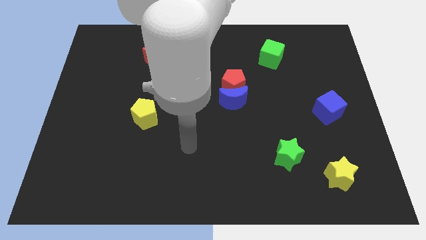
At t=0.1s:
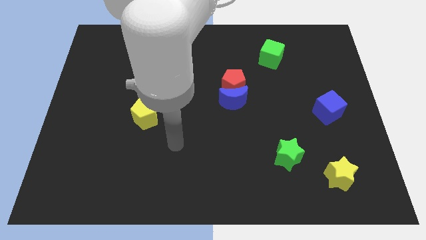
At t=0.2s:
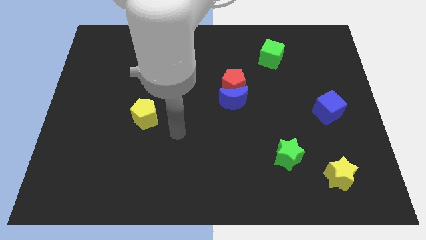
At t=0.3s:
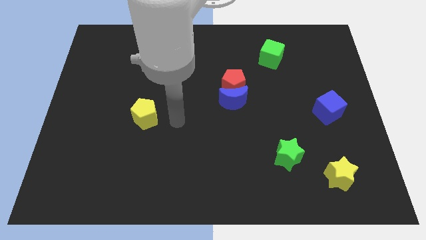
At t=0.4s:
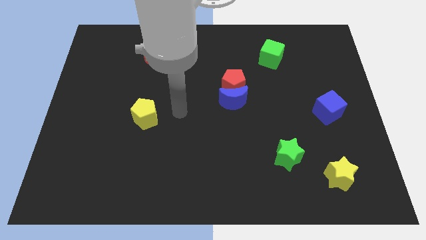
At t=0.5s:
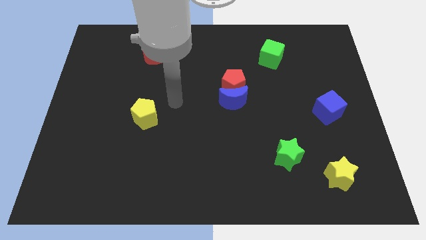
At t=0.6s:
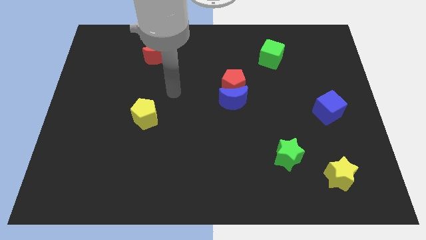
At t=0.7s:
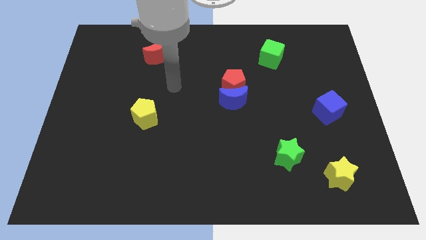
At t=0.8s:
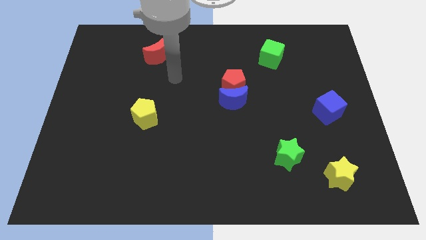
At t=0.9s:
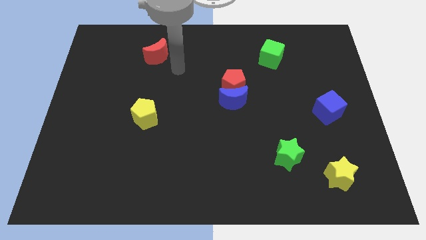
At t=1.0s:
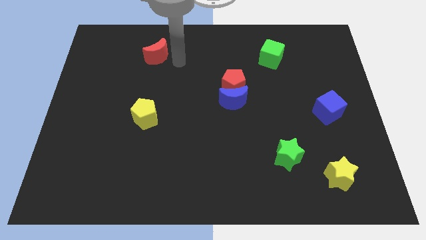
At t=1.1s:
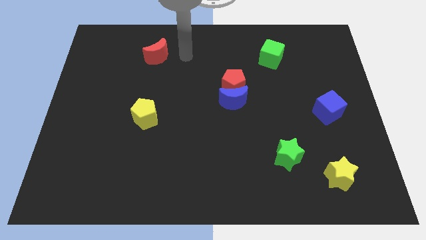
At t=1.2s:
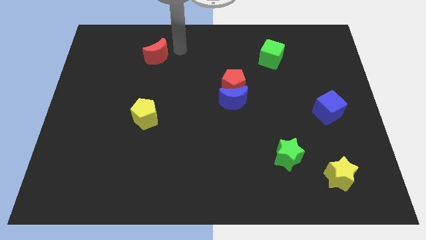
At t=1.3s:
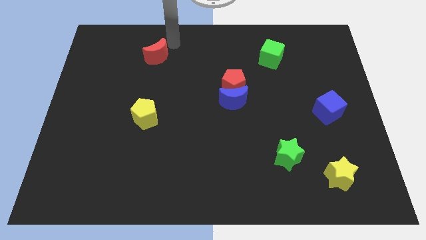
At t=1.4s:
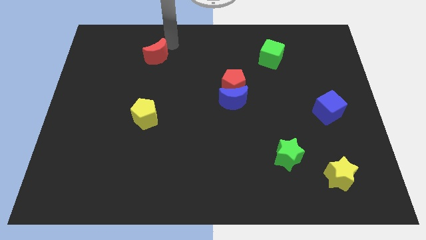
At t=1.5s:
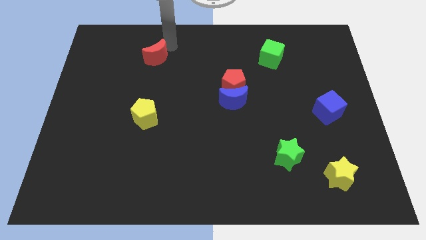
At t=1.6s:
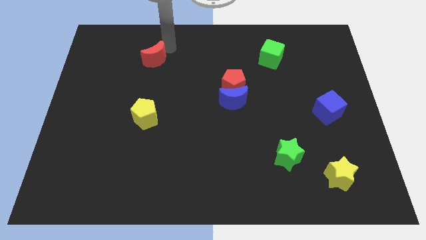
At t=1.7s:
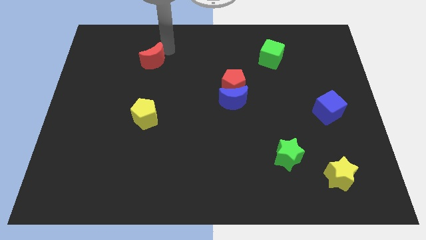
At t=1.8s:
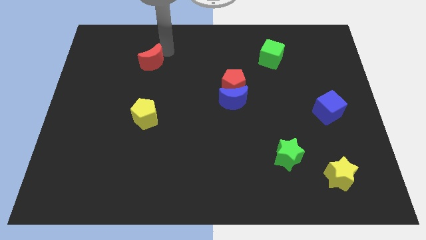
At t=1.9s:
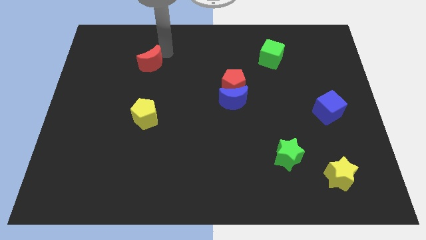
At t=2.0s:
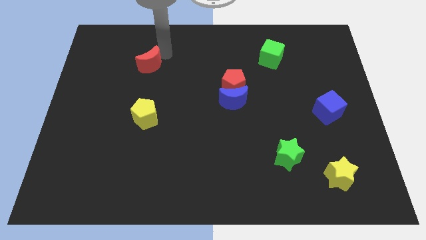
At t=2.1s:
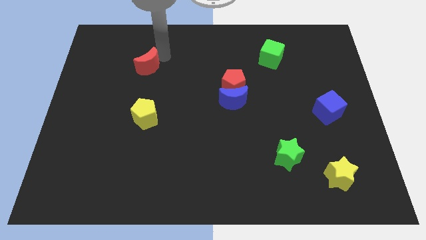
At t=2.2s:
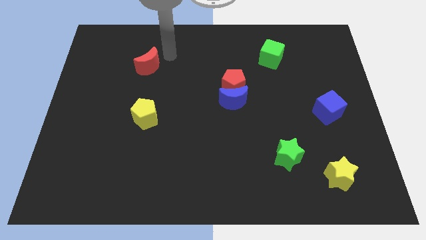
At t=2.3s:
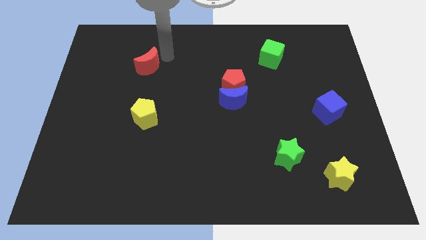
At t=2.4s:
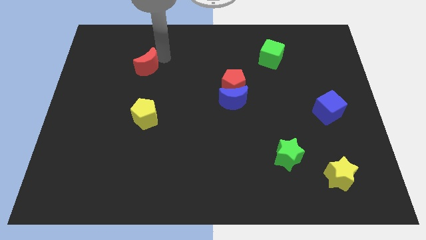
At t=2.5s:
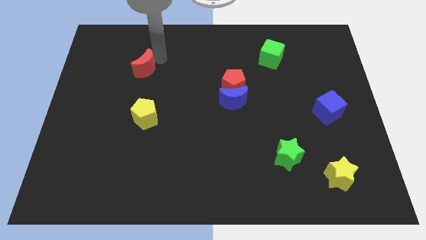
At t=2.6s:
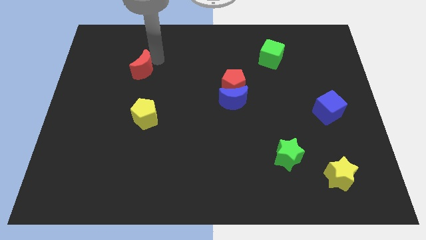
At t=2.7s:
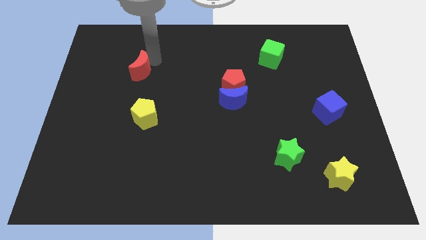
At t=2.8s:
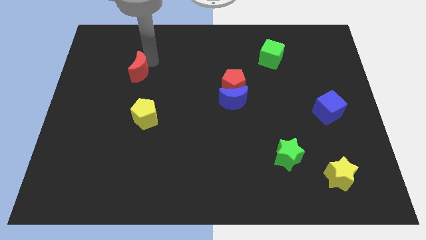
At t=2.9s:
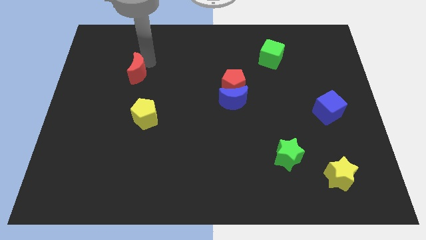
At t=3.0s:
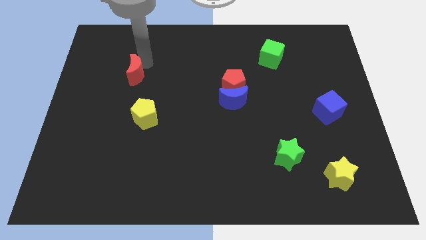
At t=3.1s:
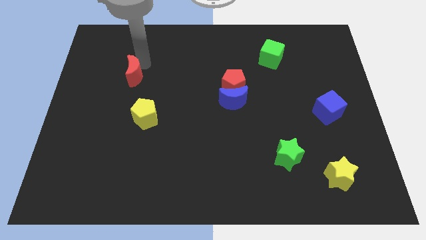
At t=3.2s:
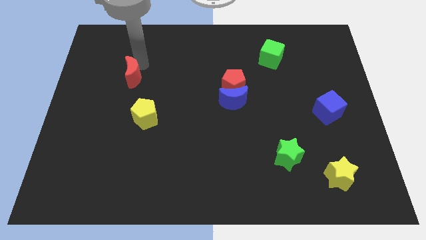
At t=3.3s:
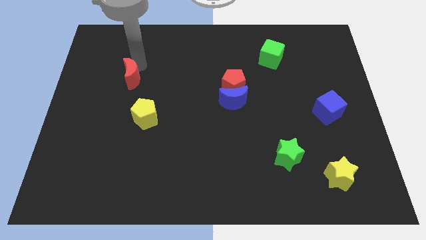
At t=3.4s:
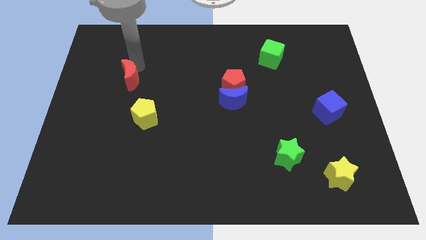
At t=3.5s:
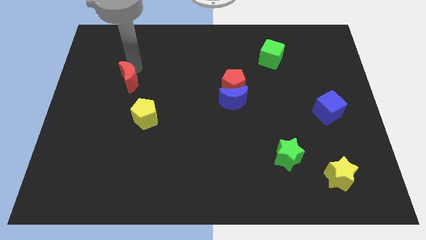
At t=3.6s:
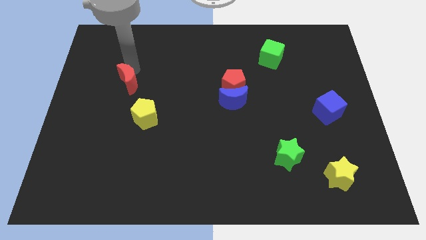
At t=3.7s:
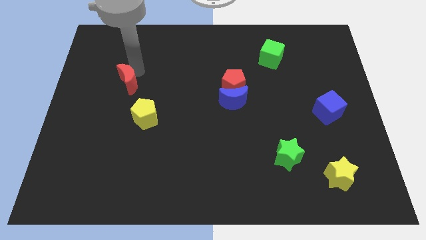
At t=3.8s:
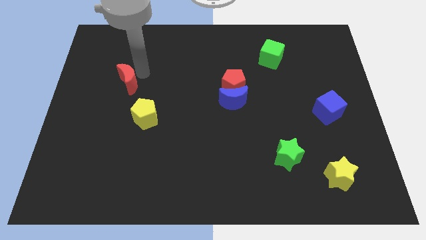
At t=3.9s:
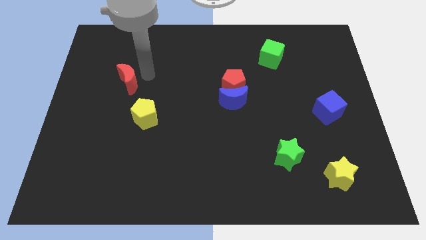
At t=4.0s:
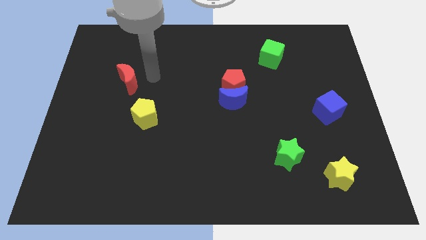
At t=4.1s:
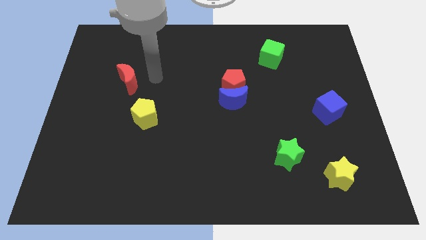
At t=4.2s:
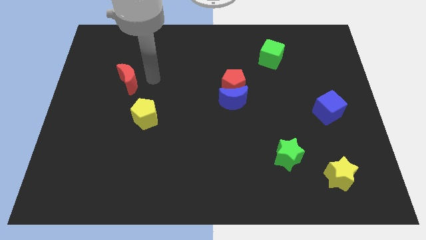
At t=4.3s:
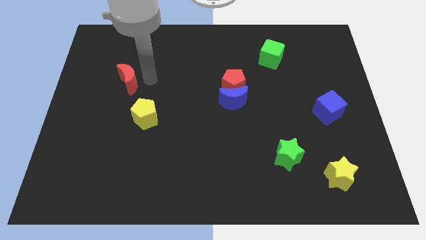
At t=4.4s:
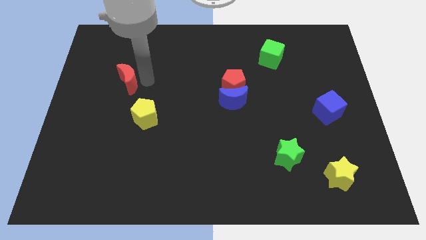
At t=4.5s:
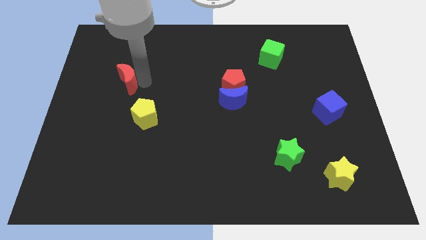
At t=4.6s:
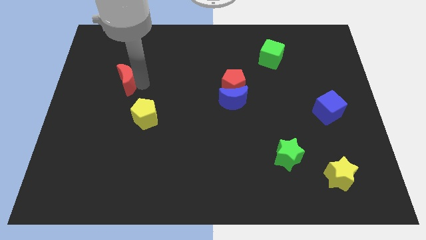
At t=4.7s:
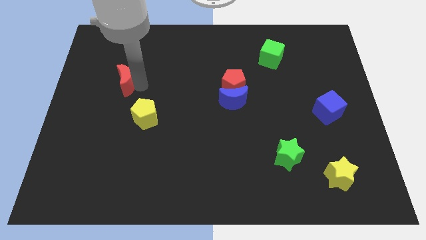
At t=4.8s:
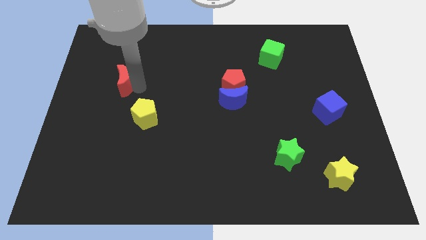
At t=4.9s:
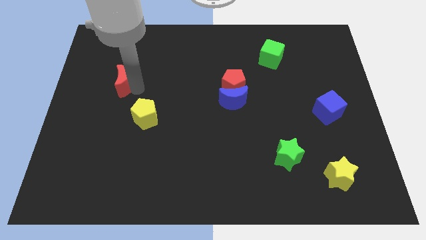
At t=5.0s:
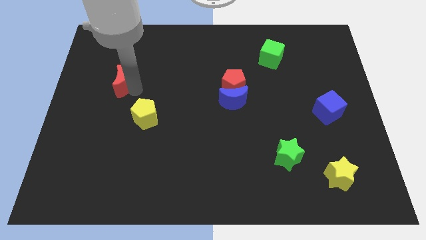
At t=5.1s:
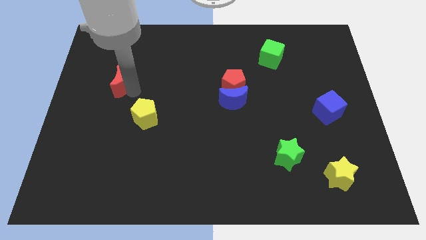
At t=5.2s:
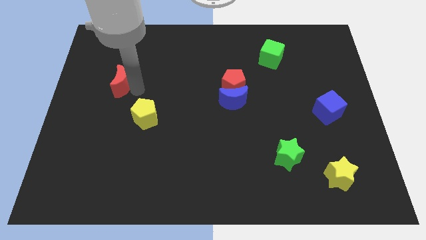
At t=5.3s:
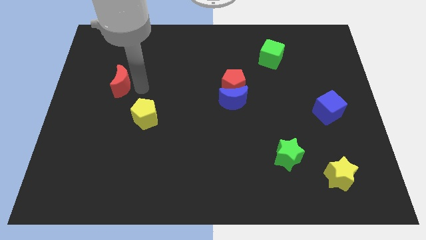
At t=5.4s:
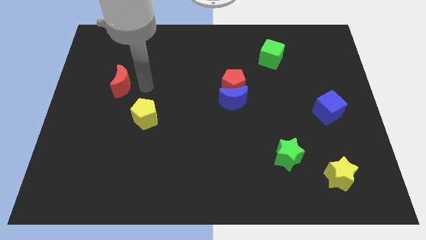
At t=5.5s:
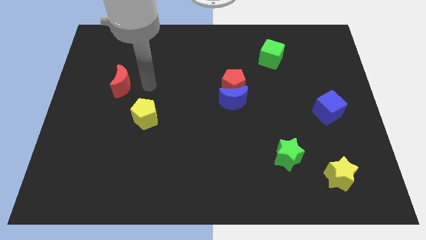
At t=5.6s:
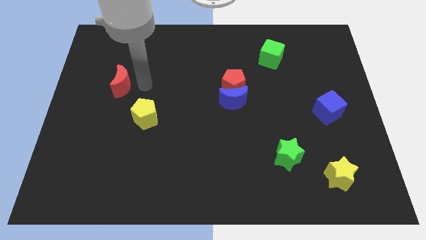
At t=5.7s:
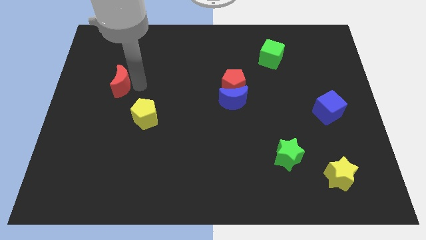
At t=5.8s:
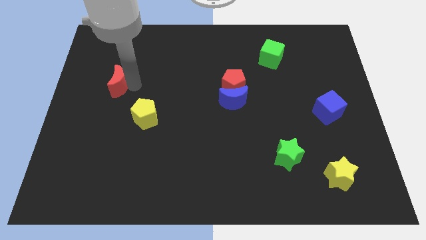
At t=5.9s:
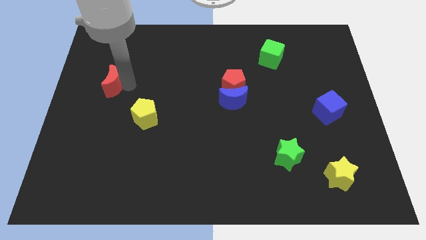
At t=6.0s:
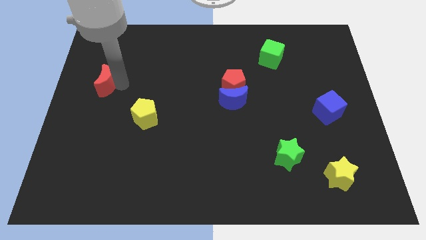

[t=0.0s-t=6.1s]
put the red moon to the left side of the board
